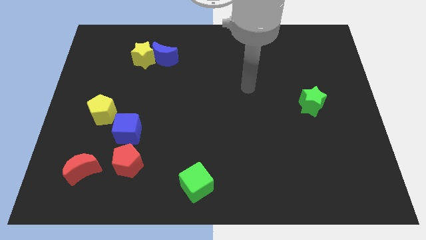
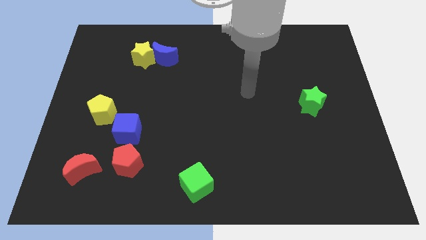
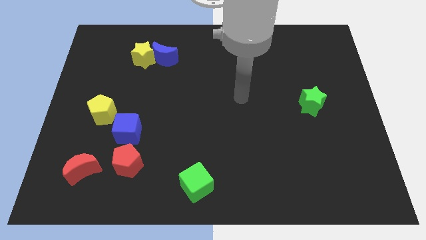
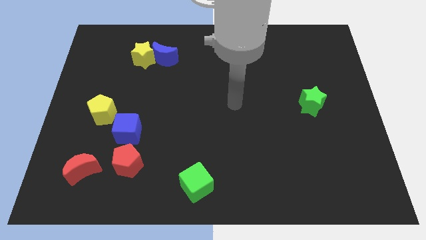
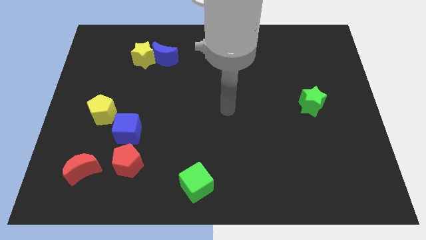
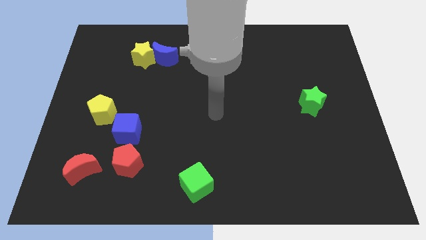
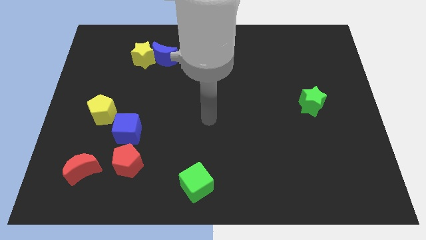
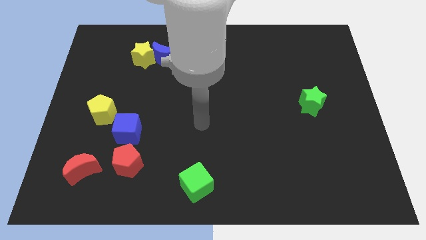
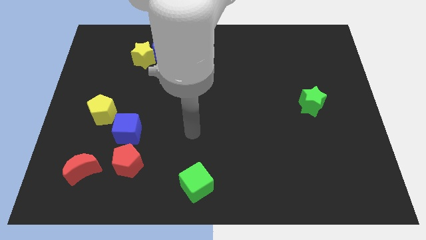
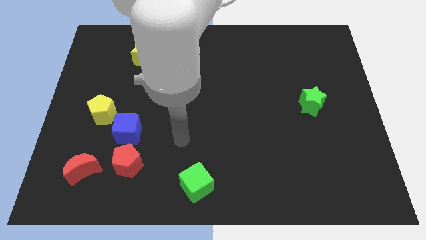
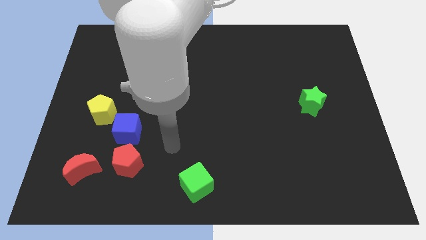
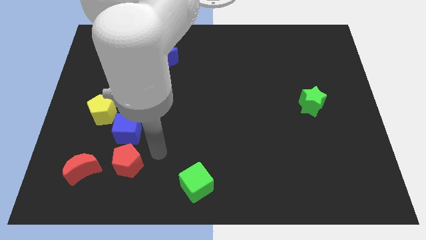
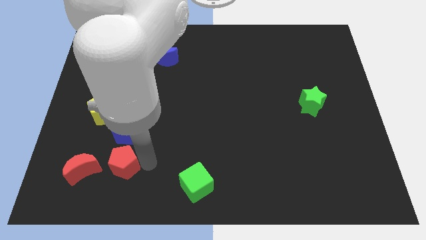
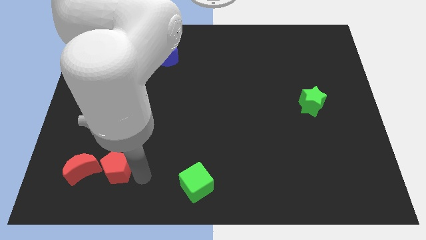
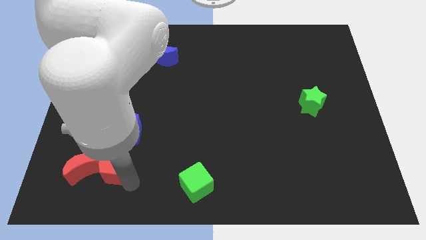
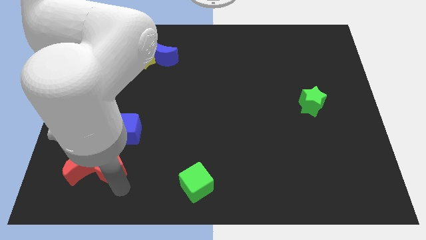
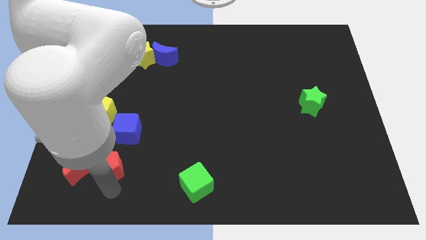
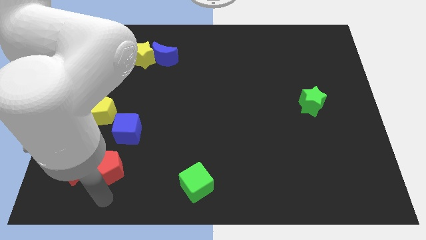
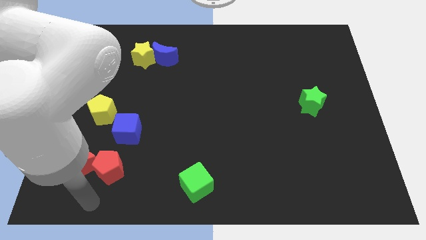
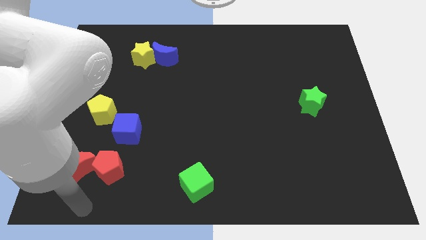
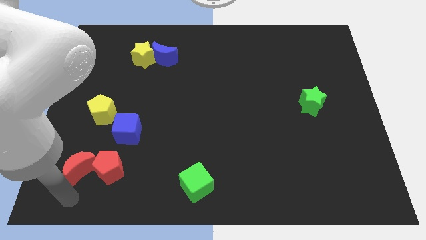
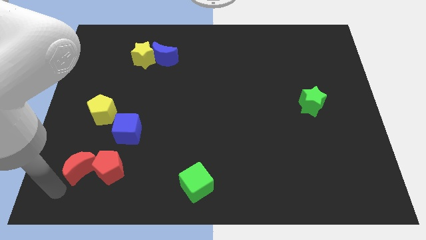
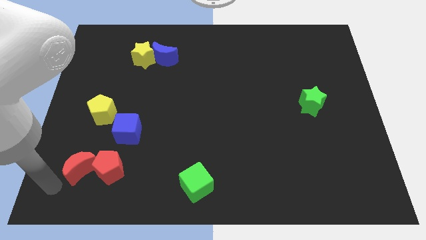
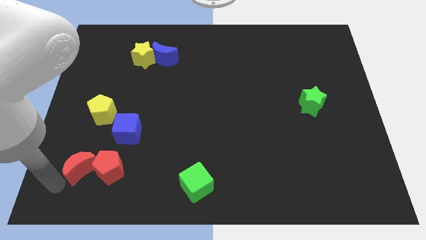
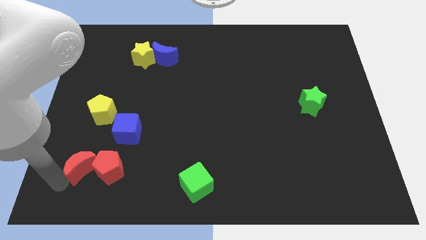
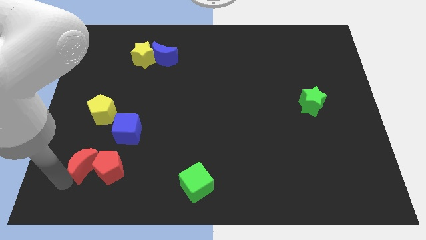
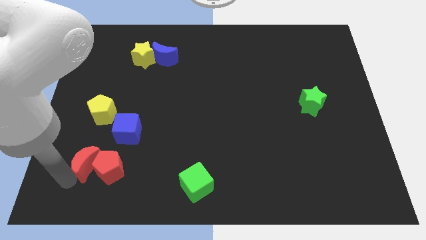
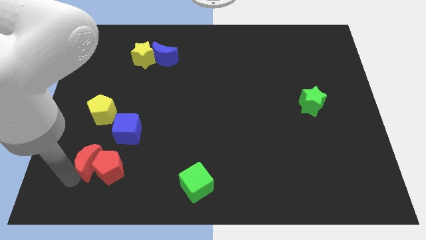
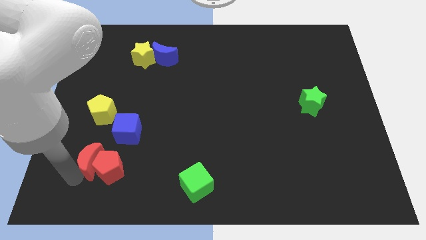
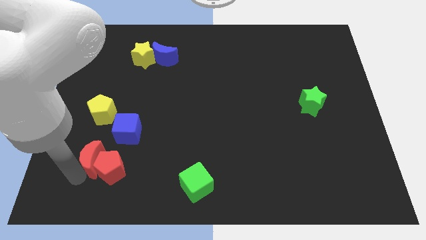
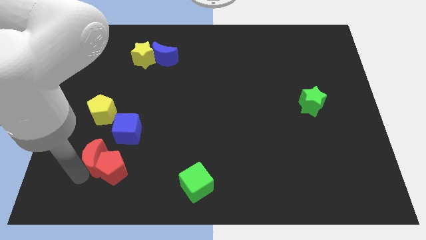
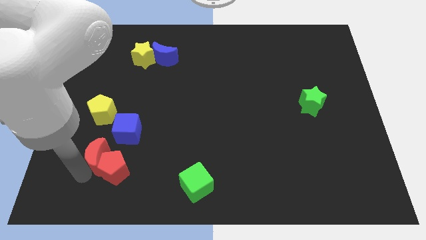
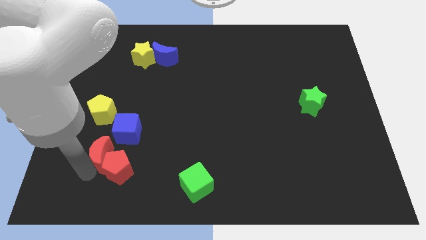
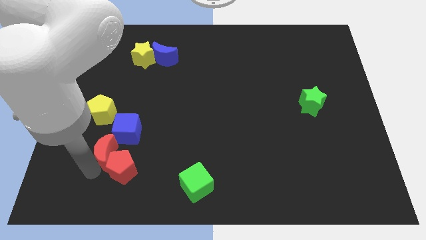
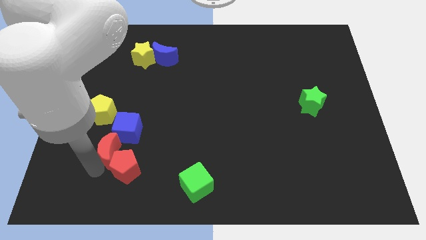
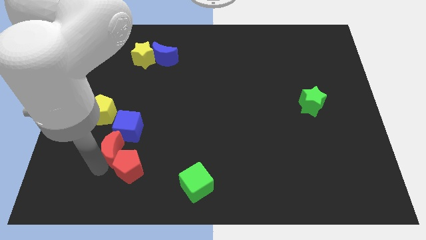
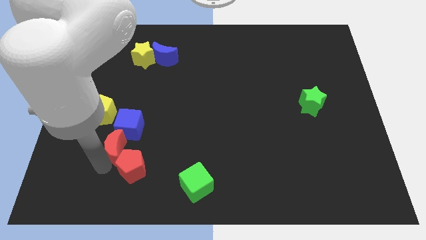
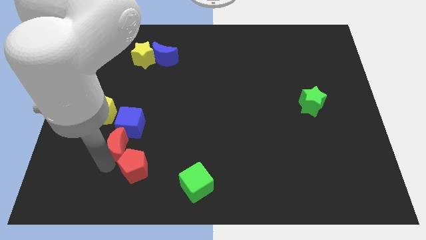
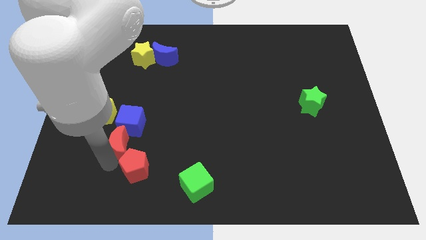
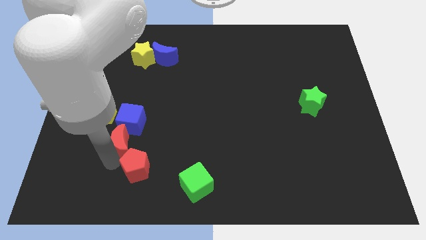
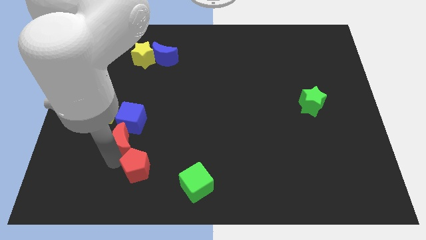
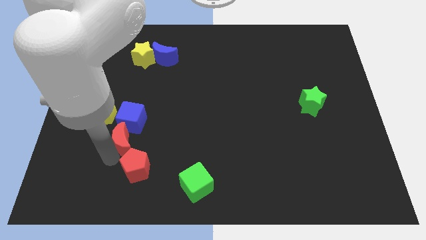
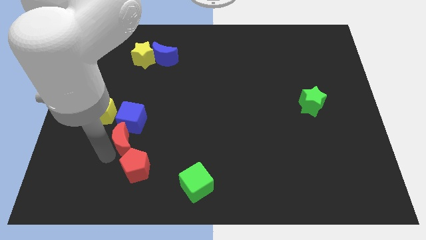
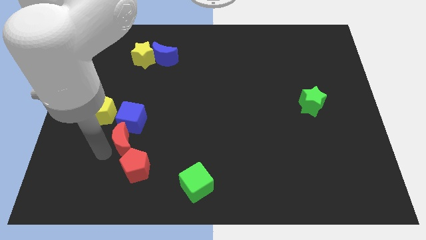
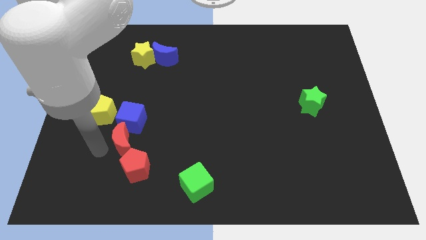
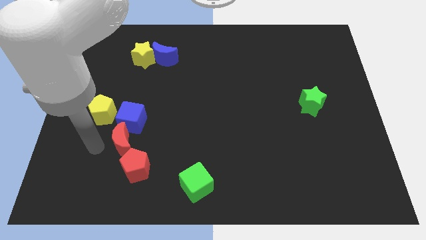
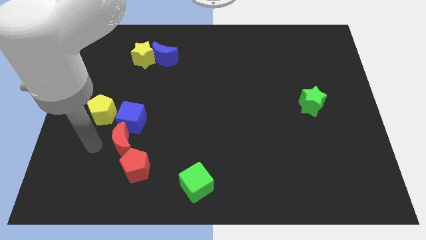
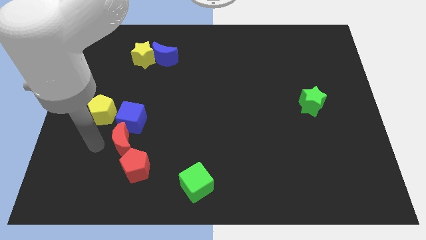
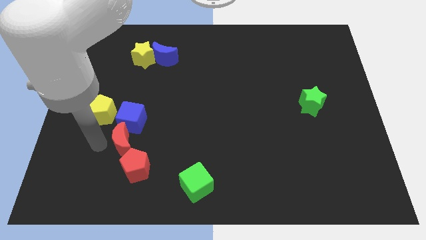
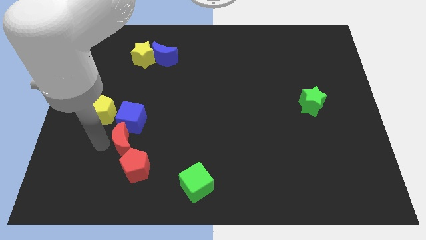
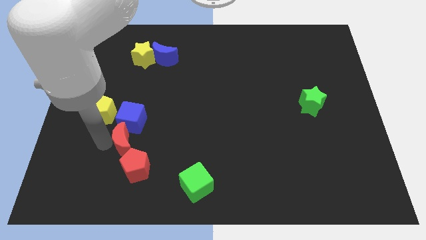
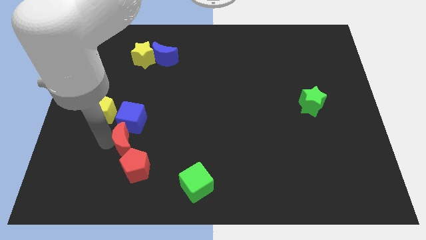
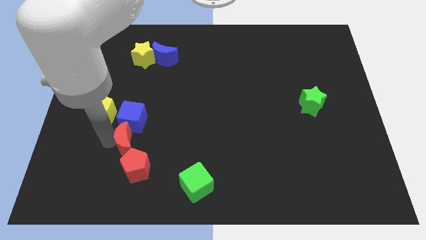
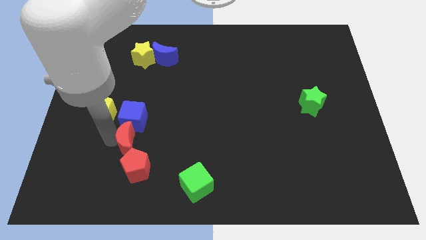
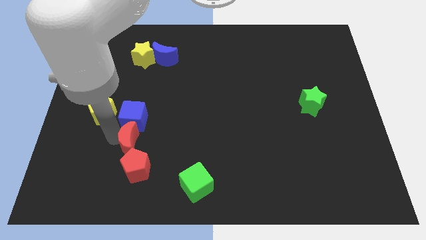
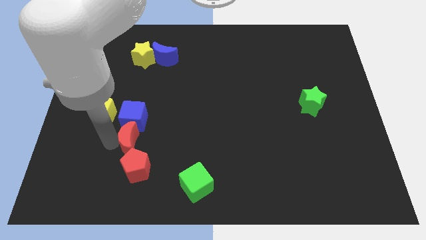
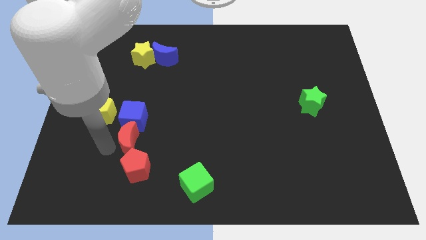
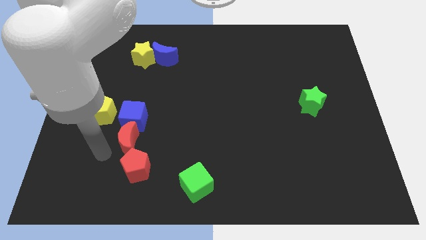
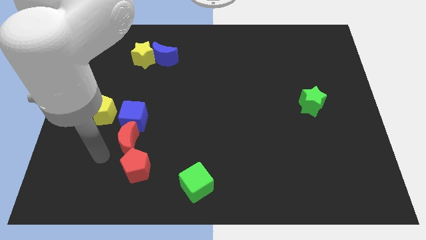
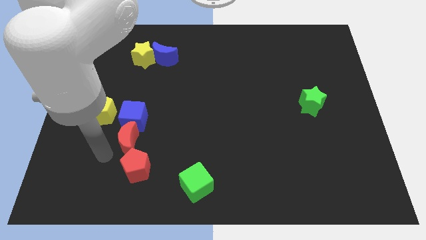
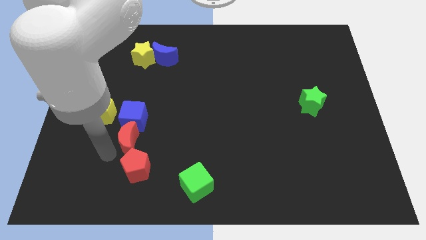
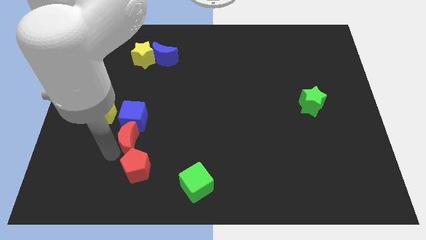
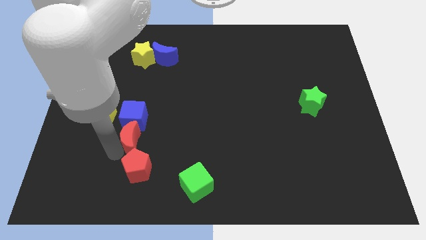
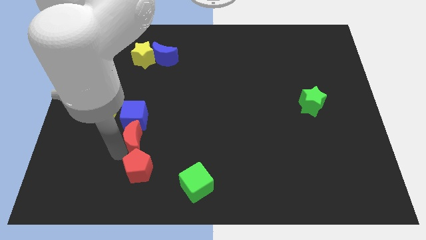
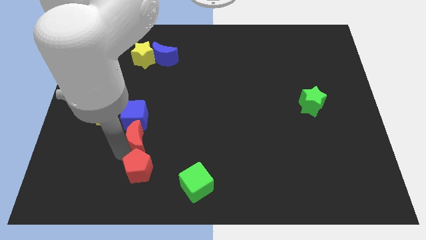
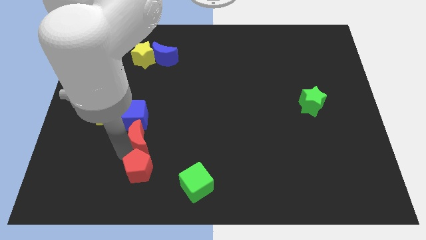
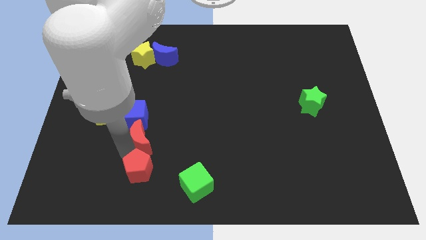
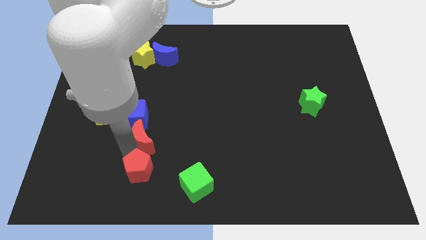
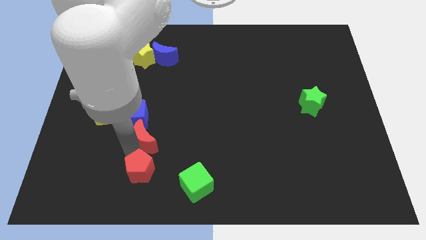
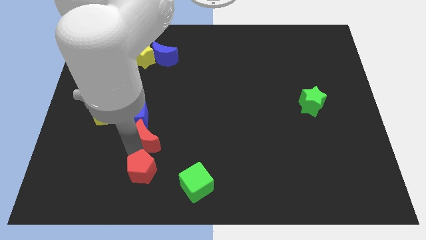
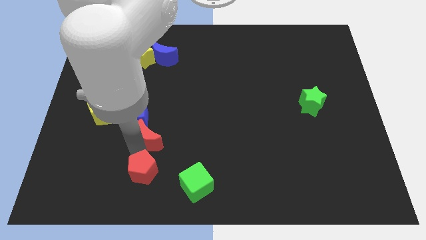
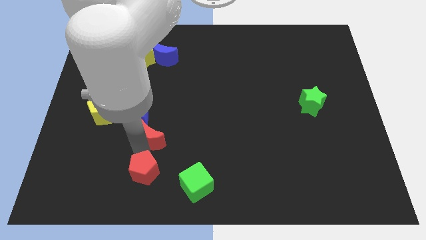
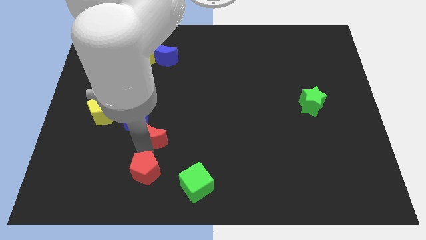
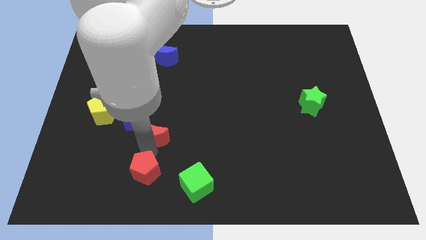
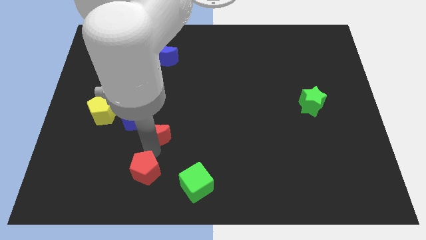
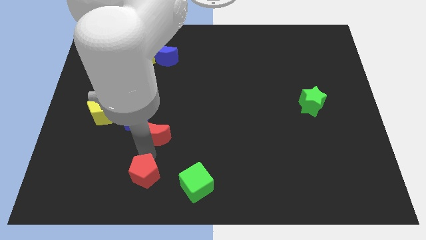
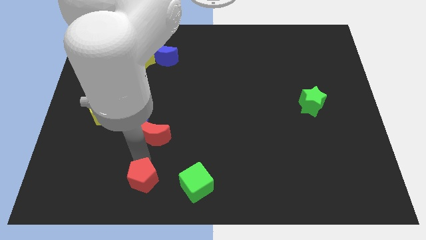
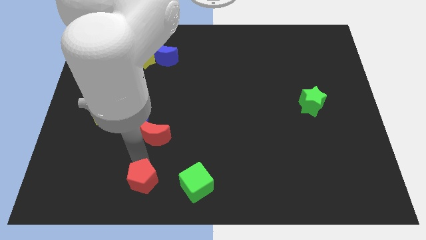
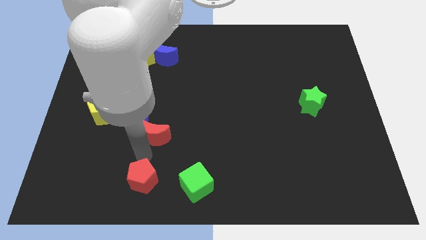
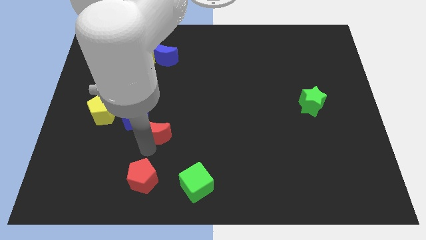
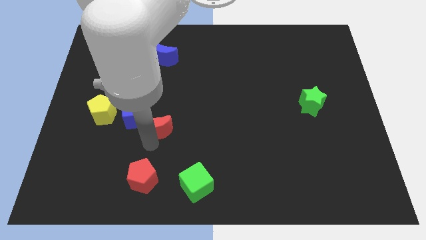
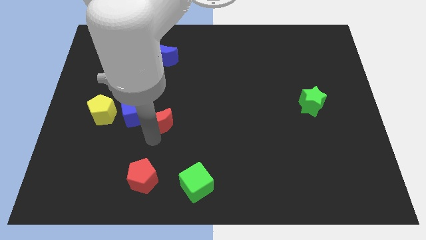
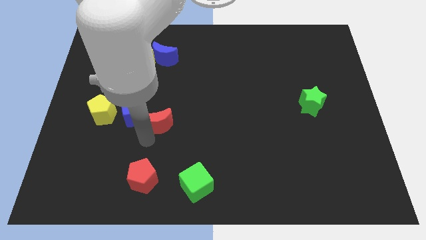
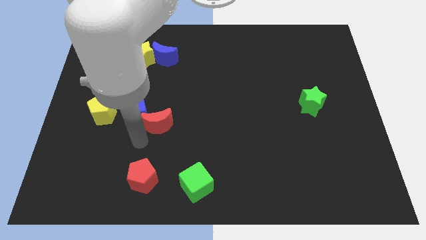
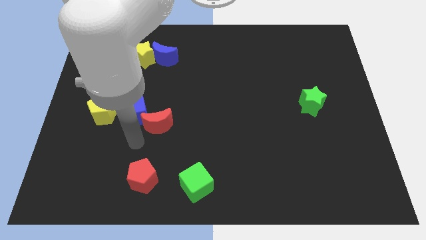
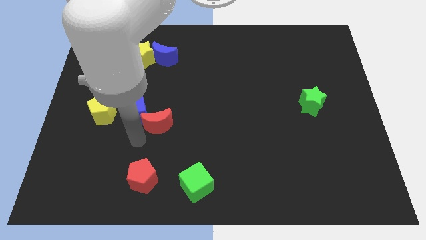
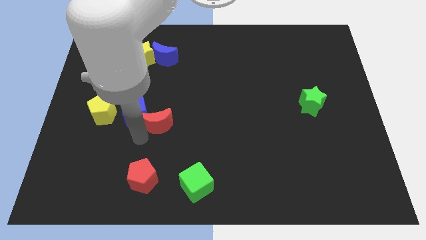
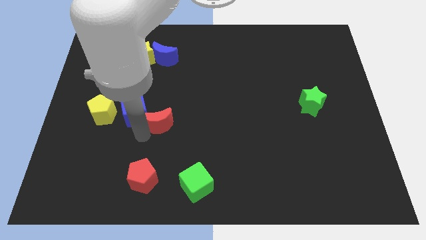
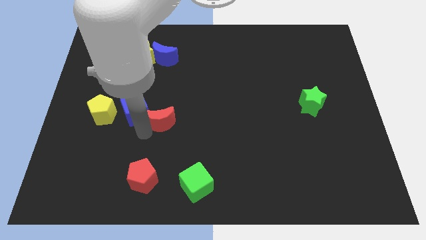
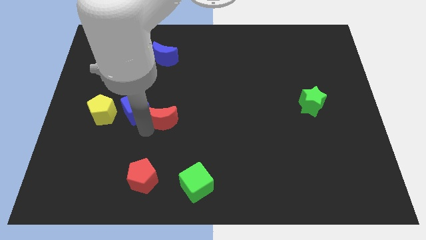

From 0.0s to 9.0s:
push the red moon diagonally up and to the right
